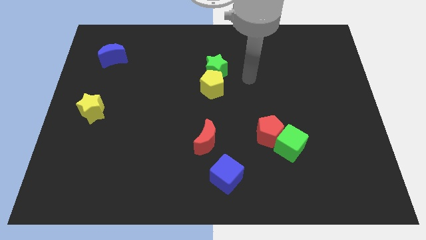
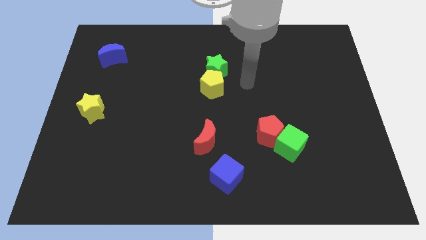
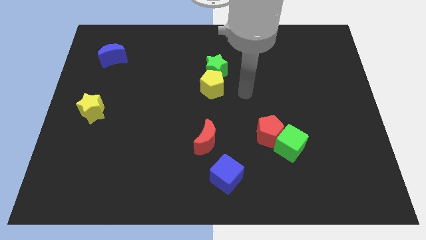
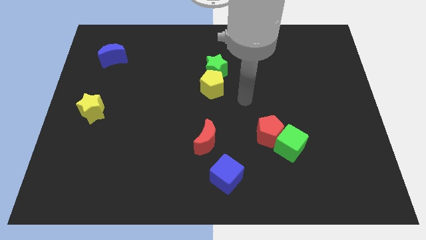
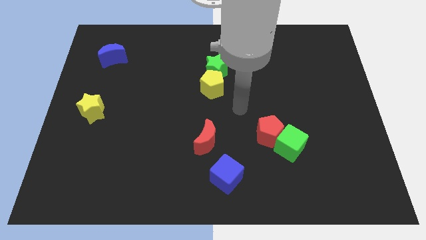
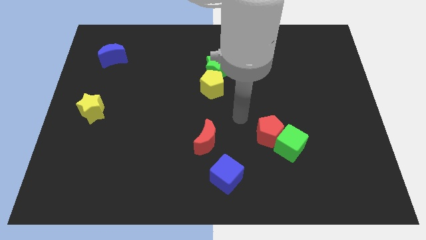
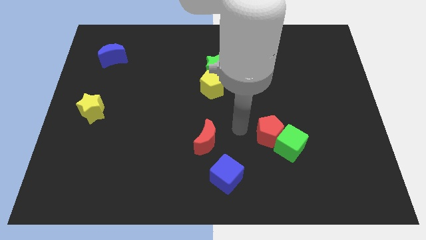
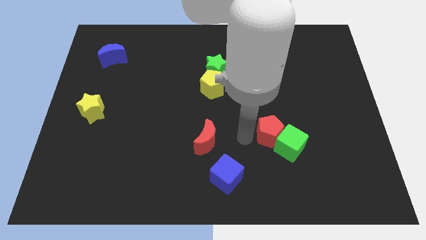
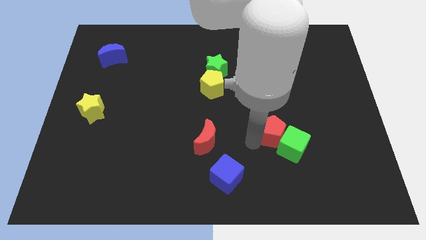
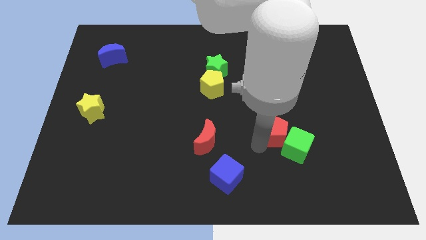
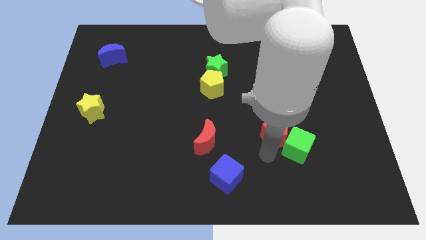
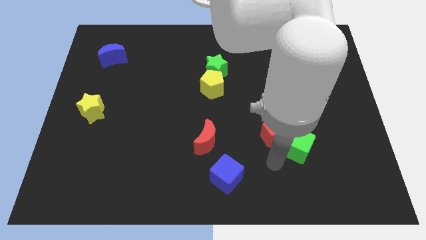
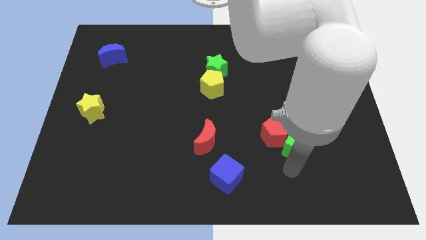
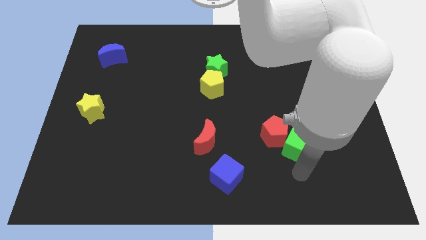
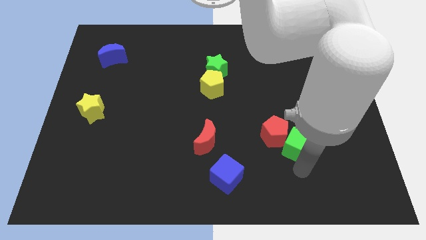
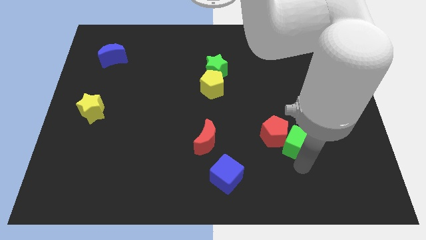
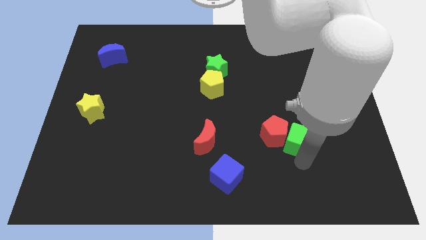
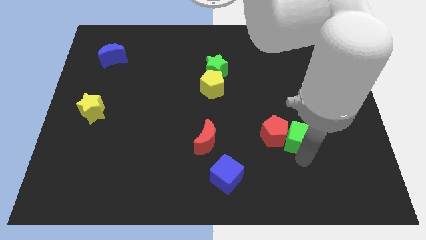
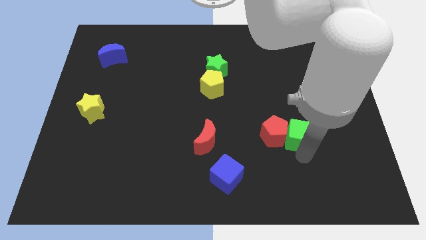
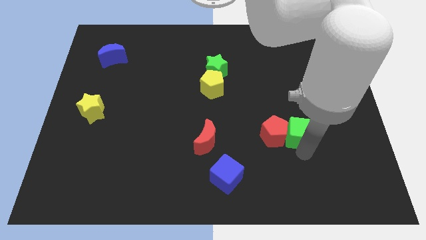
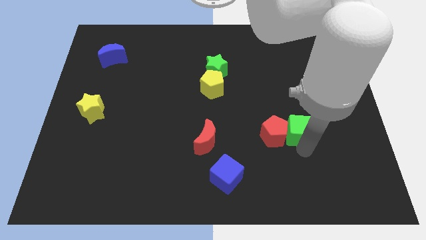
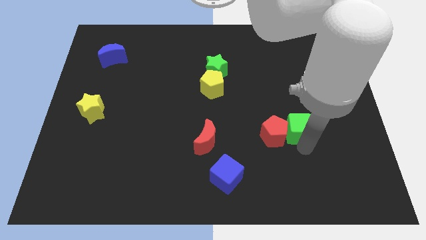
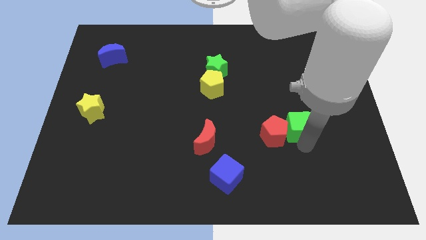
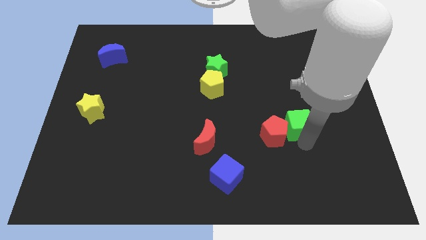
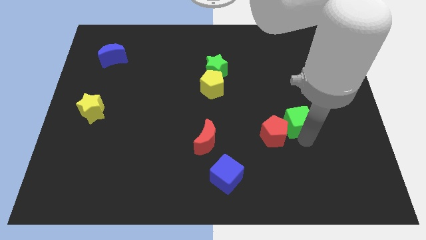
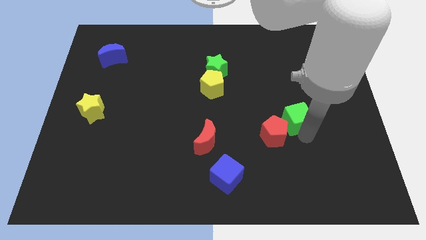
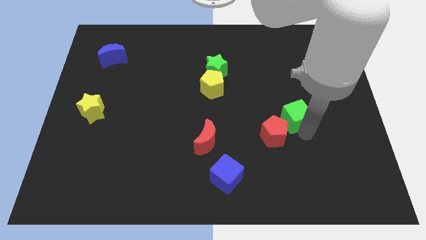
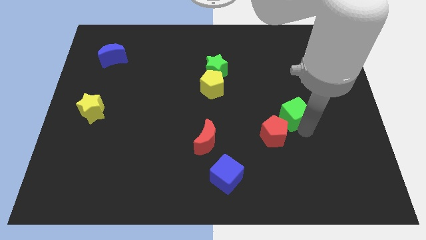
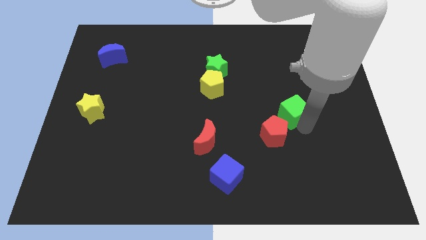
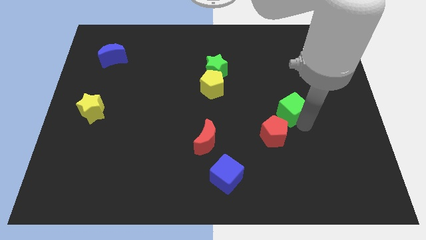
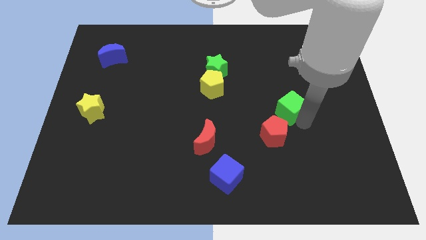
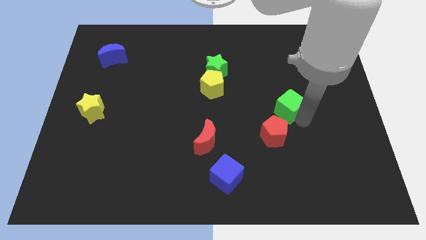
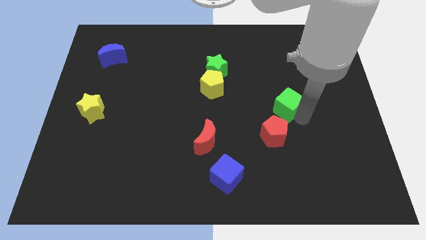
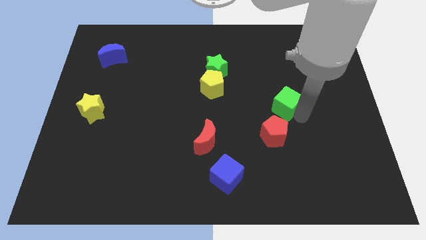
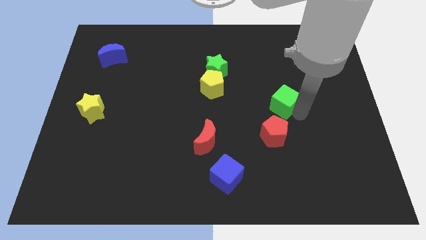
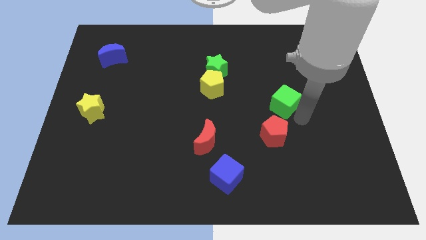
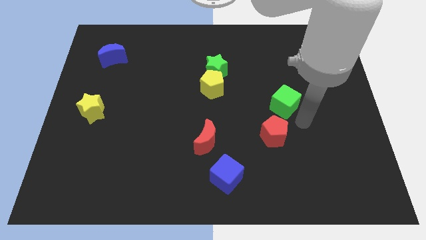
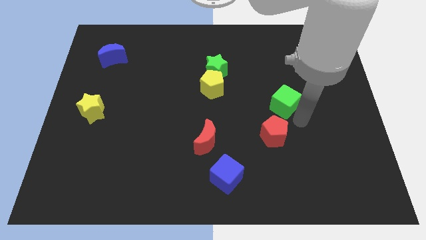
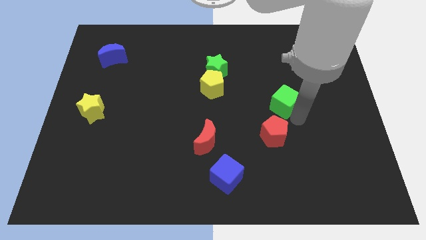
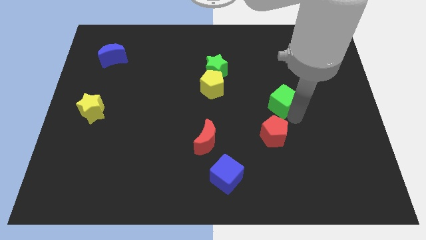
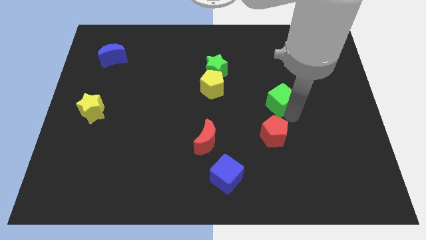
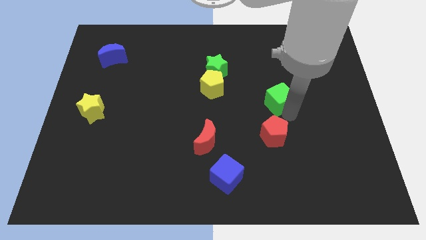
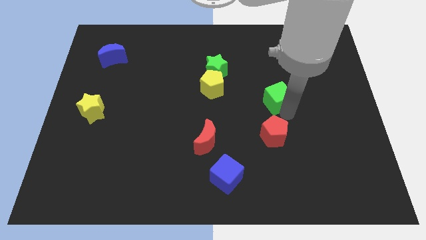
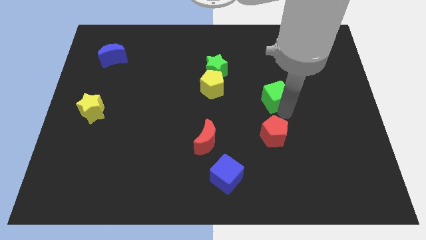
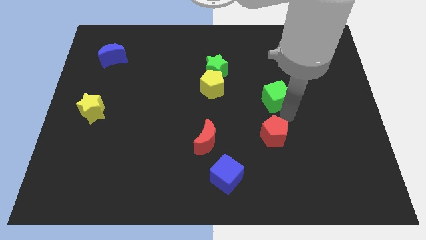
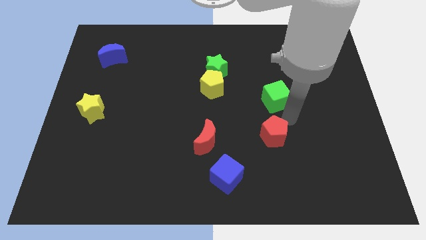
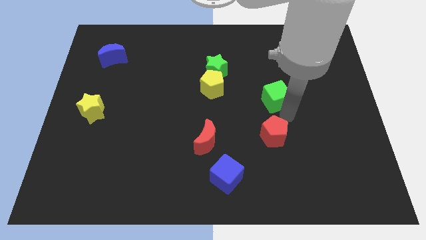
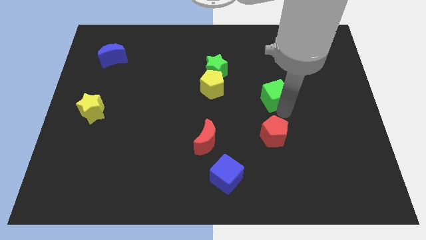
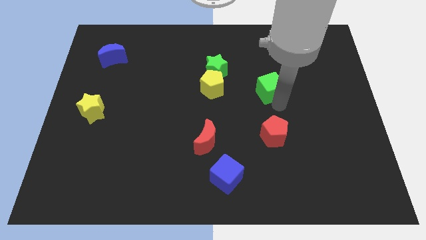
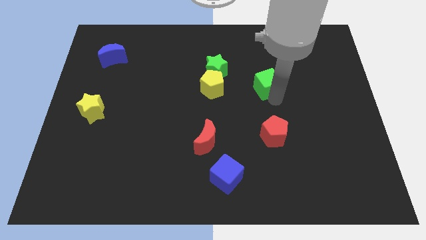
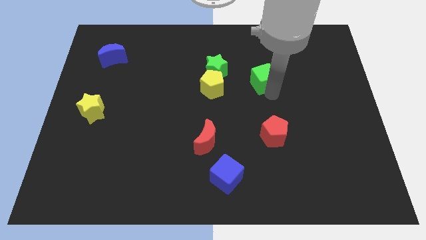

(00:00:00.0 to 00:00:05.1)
push the green cube right of the green star

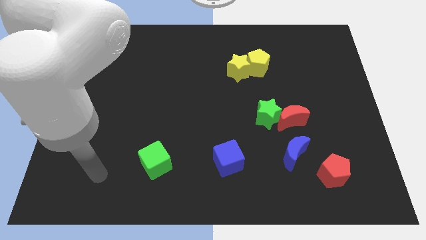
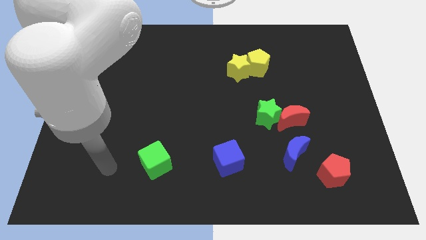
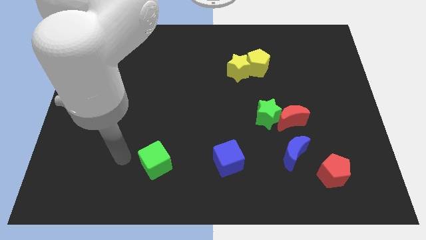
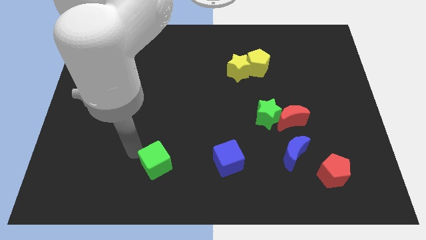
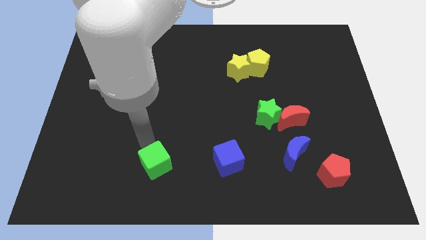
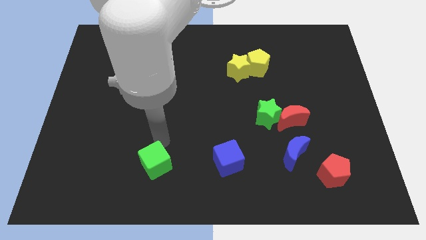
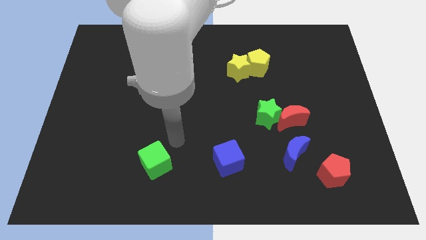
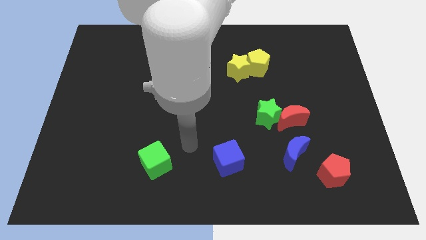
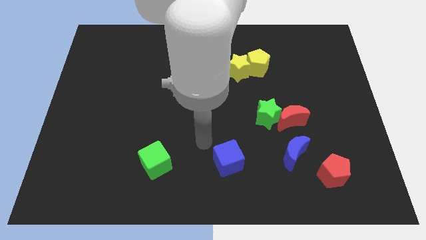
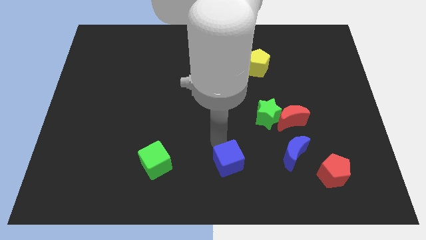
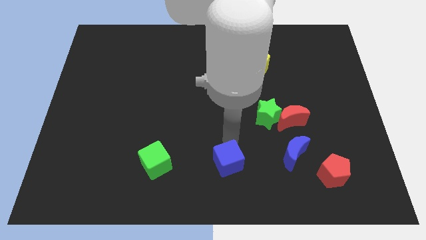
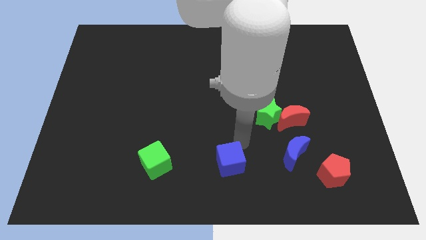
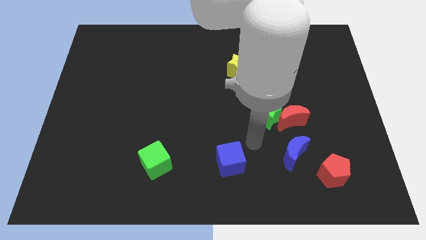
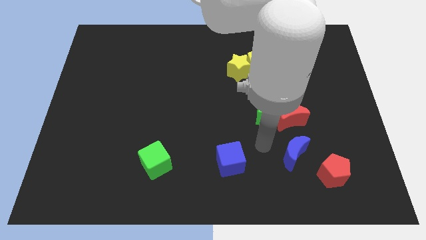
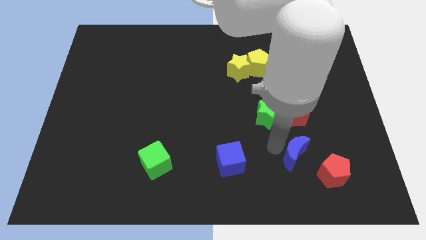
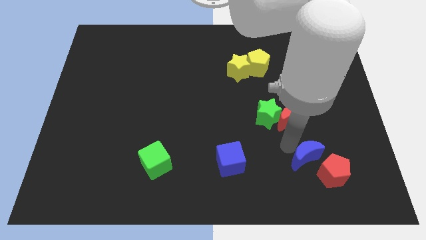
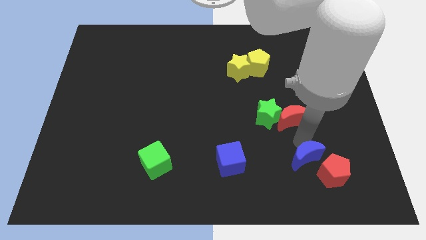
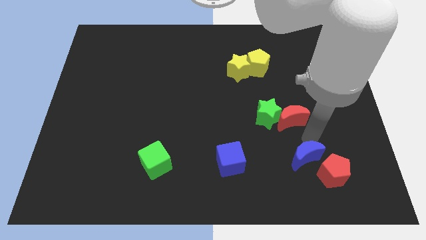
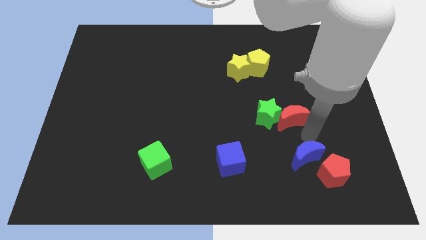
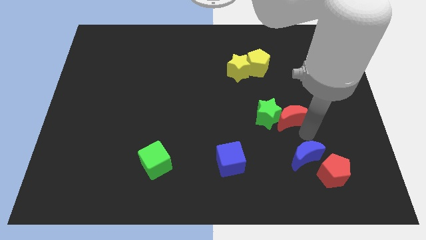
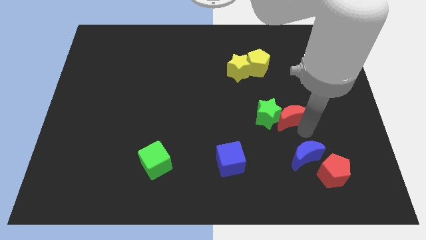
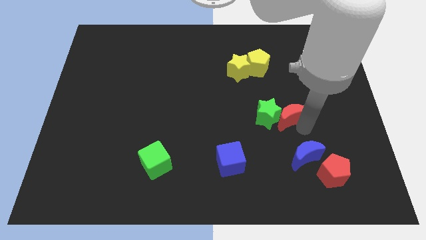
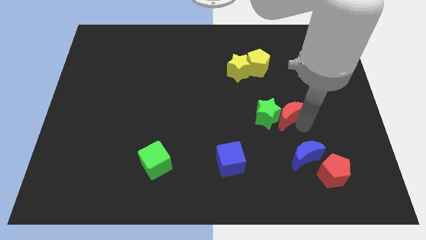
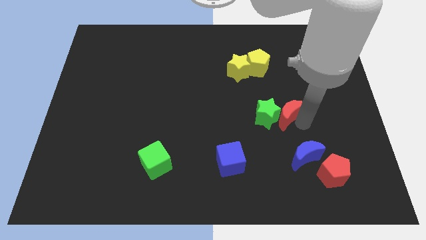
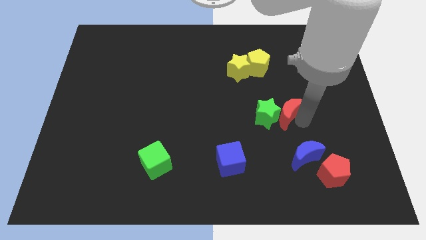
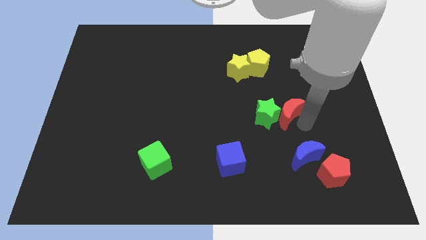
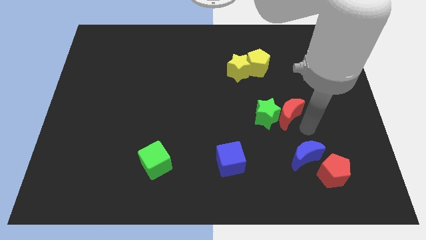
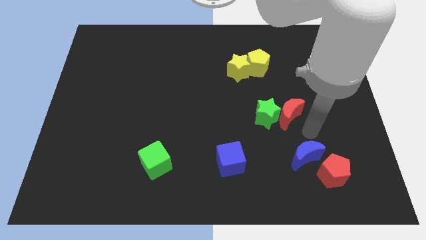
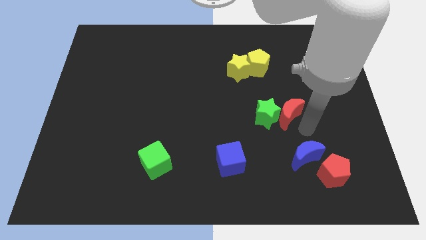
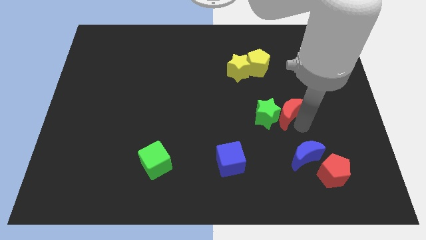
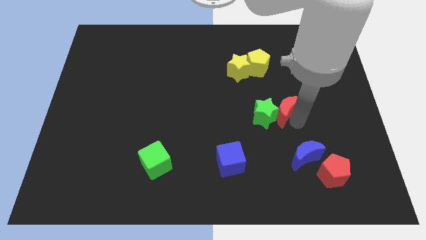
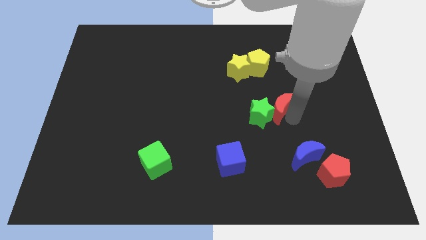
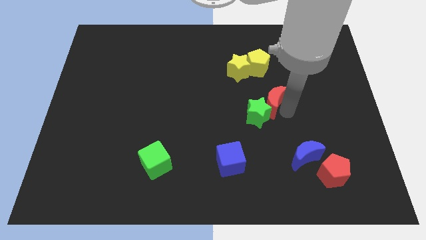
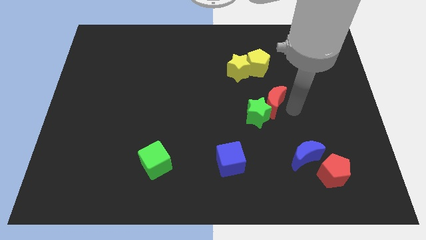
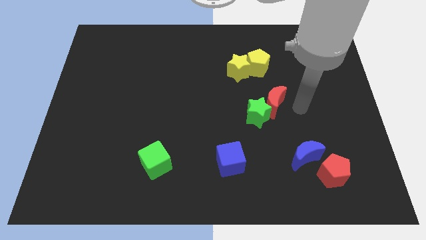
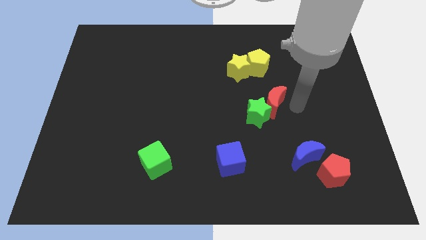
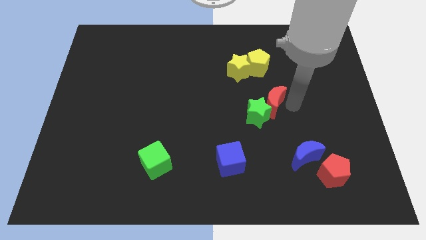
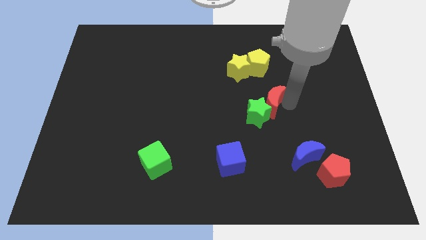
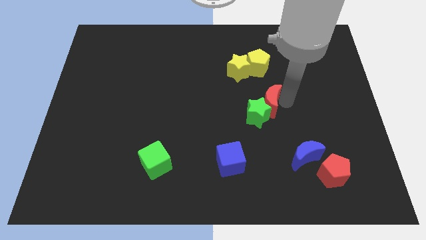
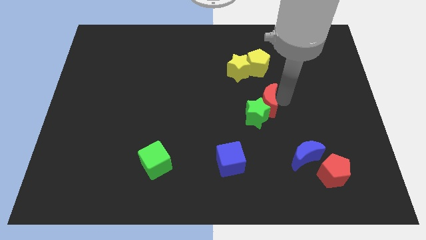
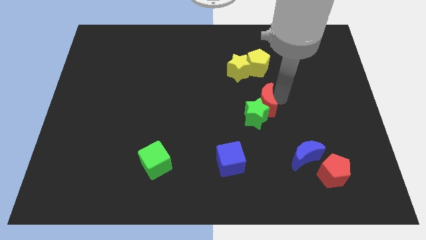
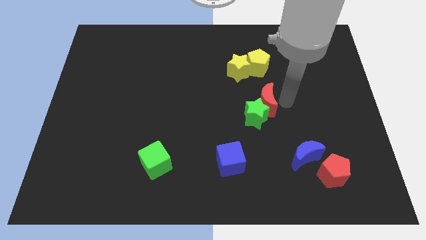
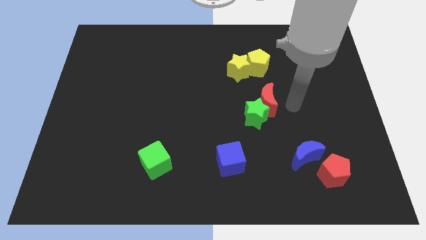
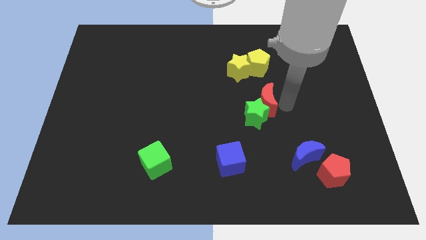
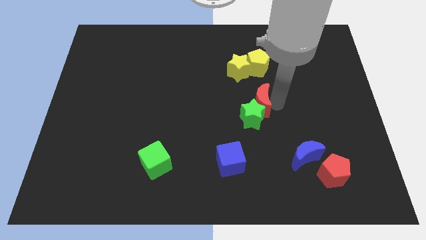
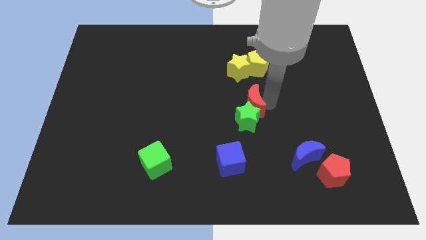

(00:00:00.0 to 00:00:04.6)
push the red moon to the top left side of the green star
